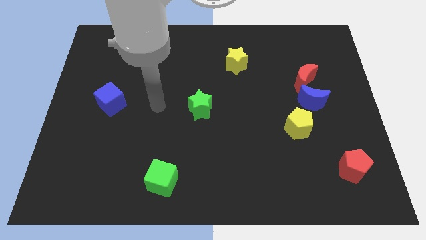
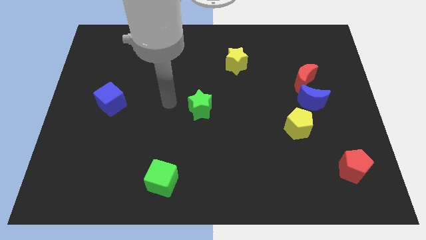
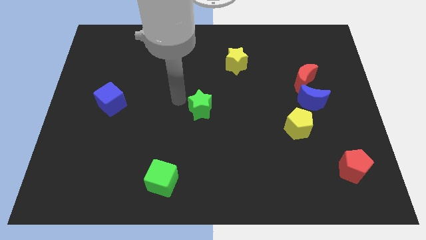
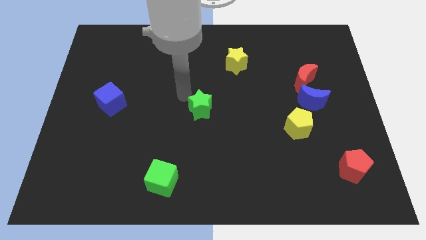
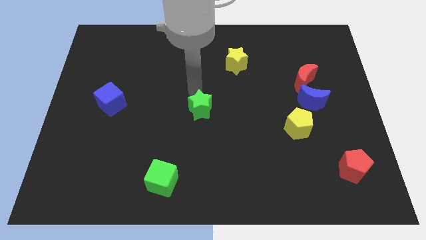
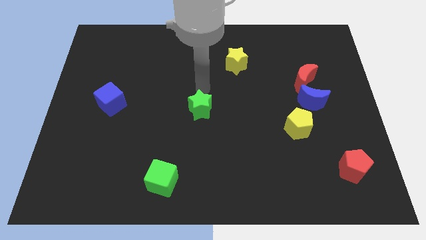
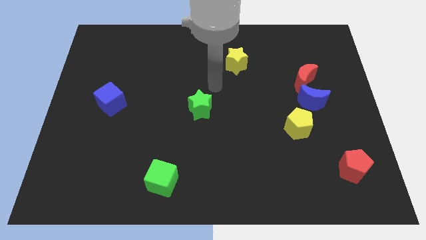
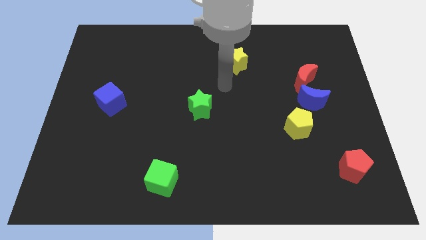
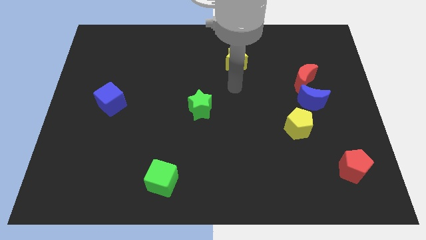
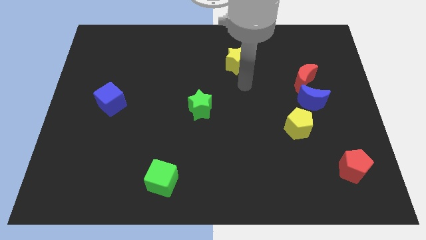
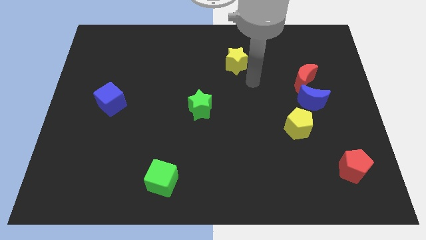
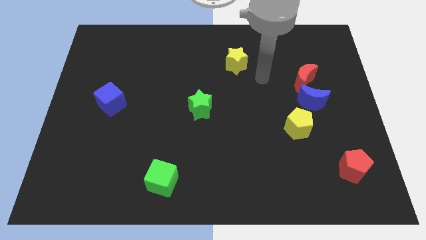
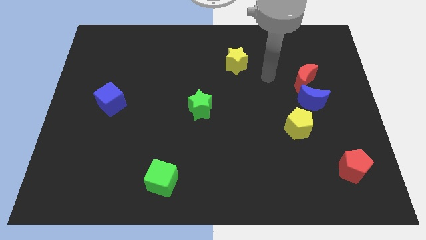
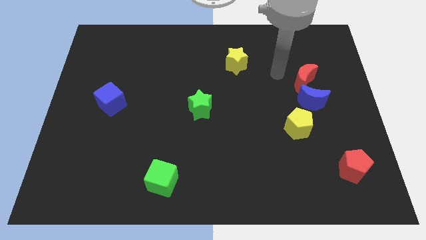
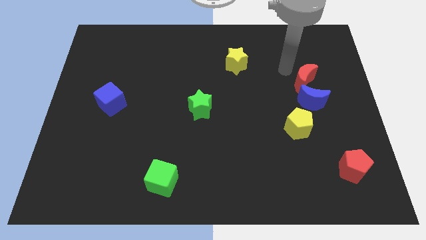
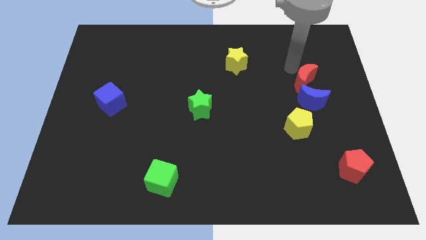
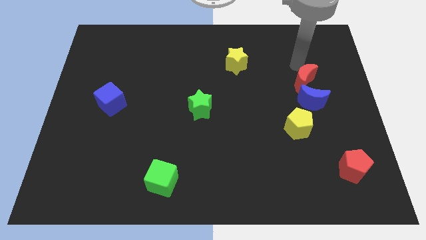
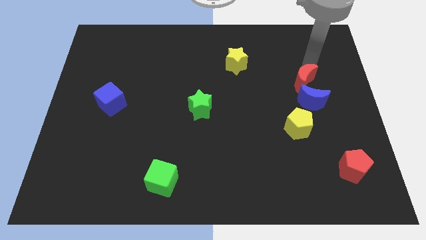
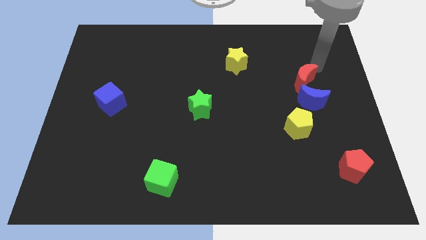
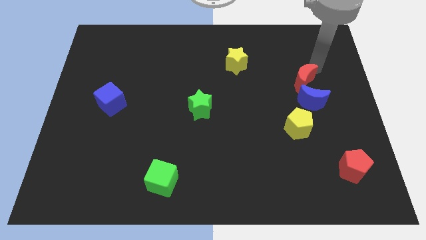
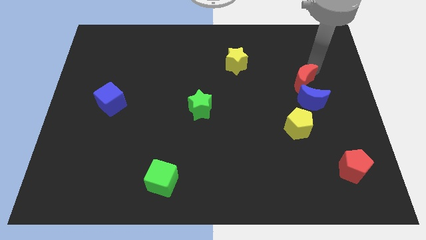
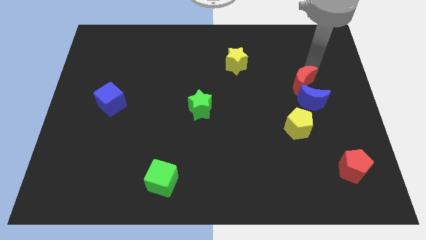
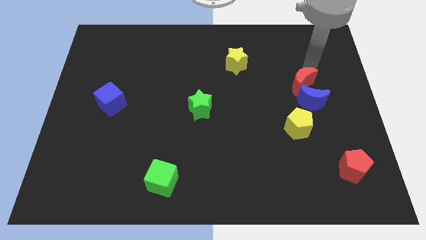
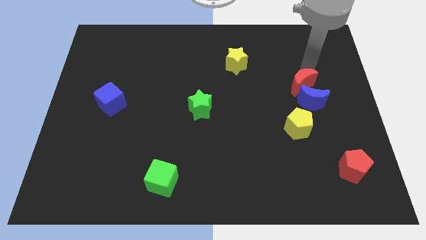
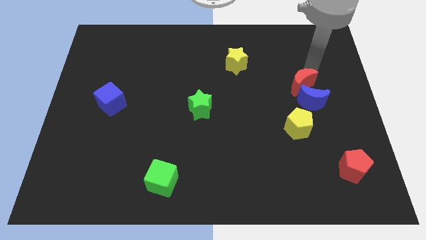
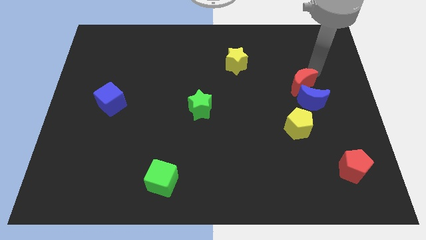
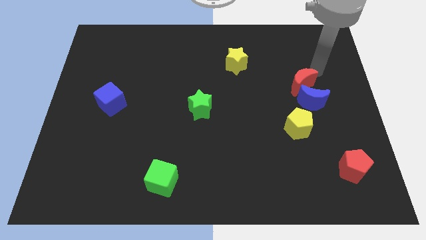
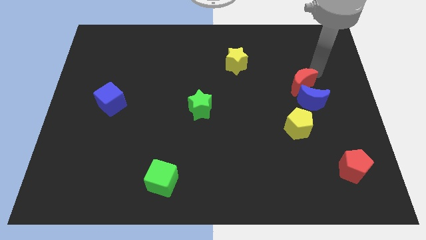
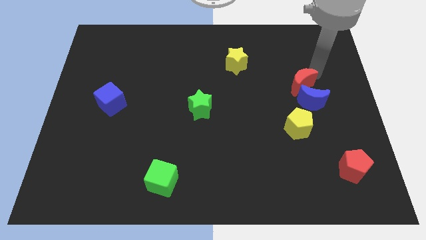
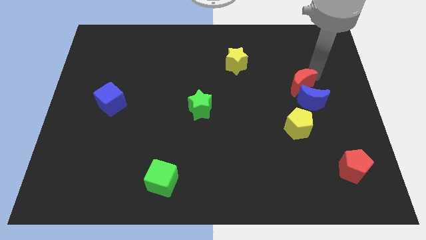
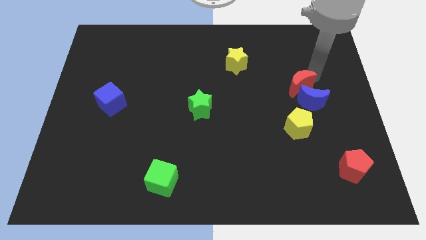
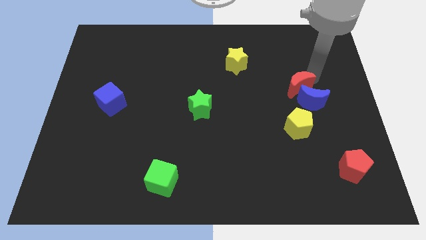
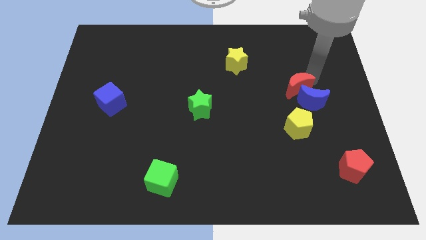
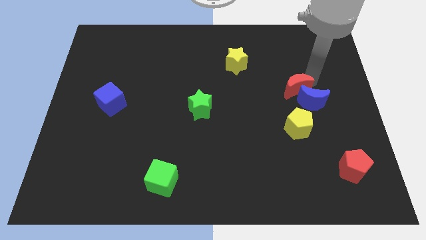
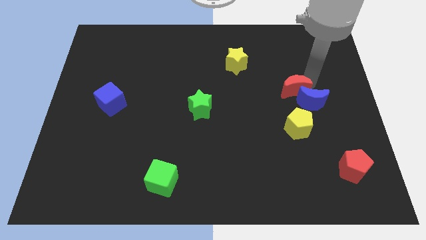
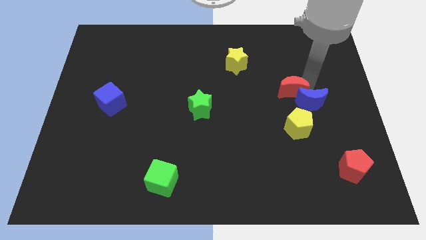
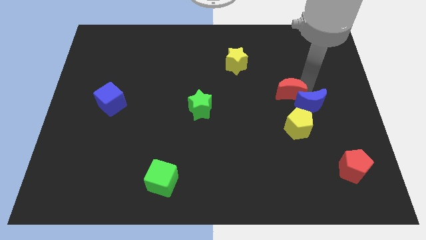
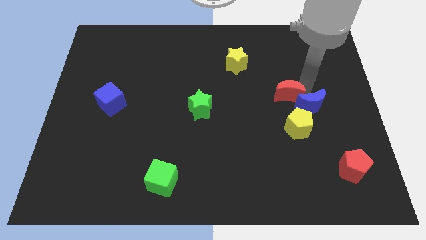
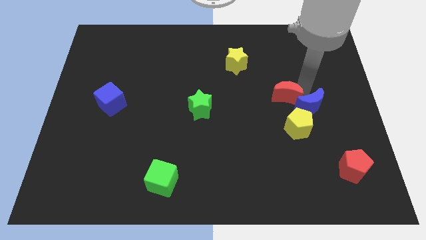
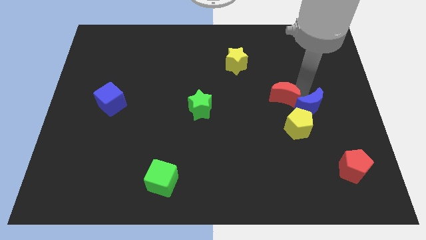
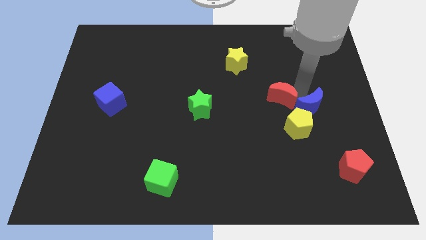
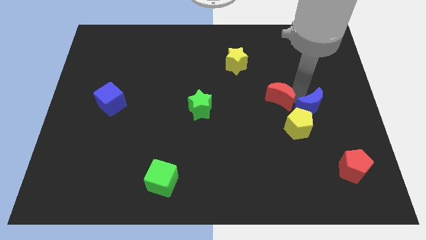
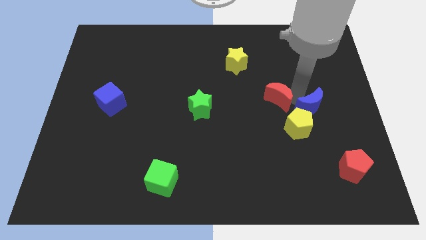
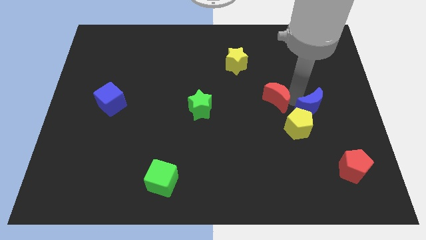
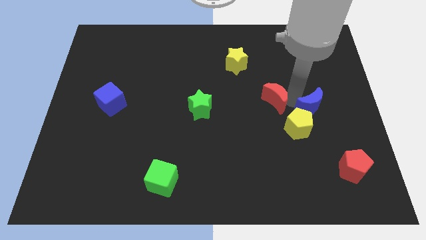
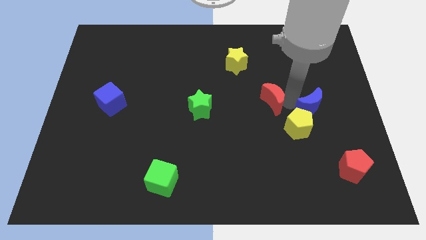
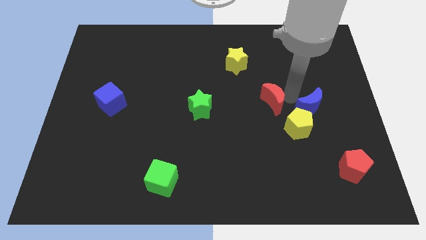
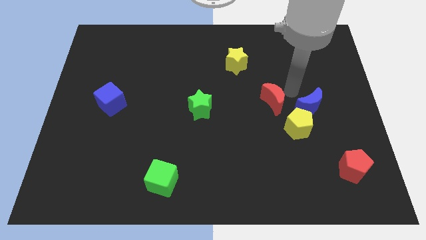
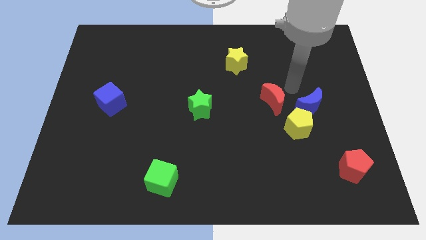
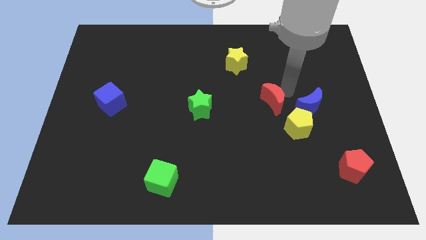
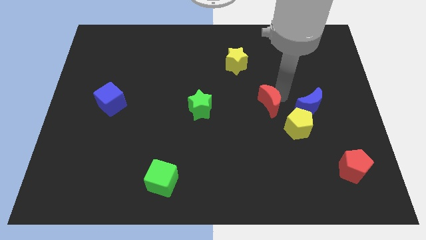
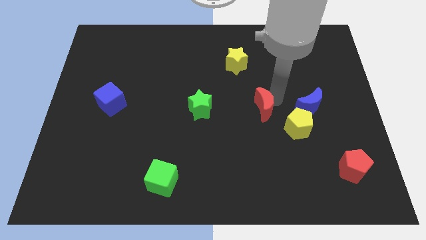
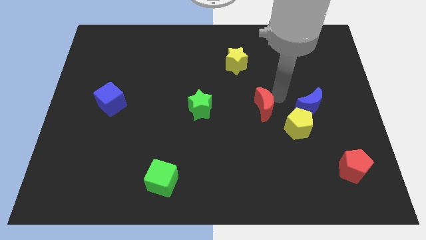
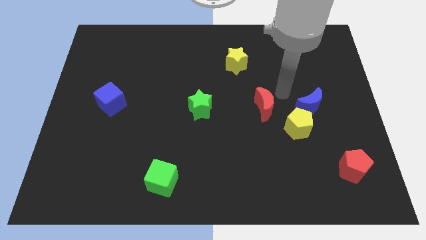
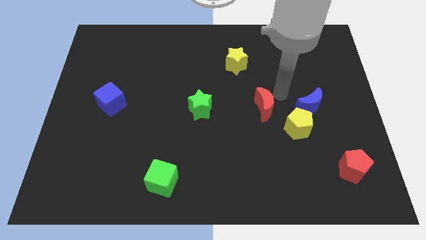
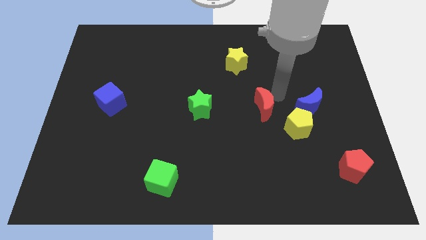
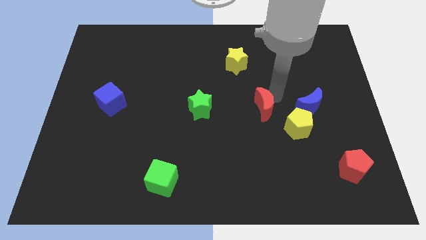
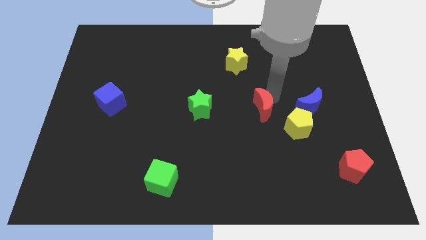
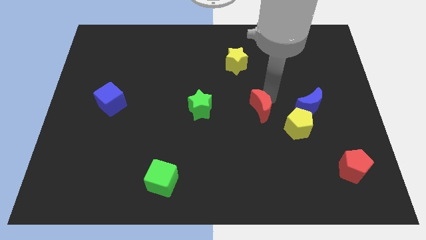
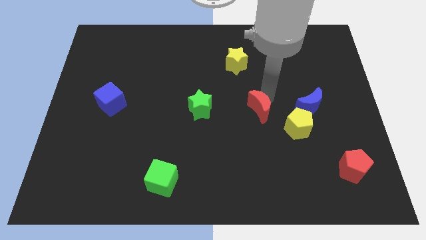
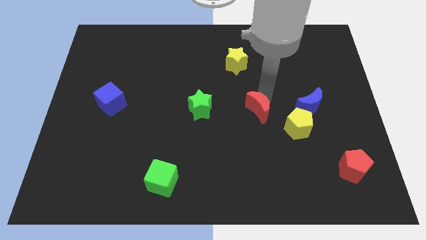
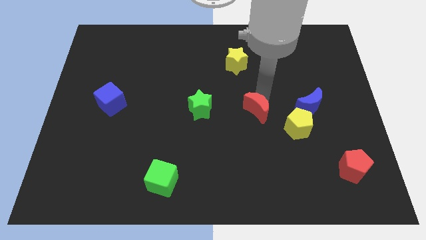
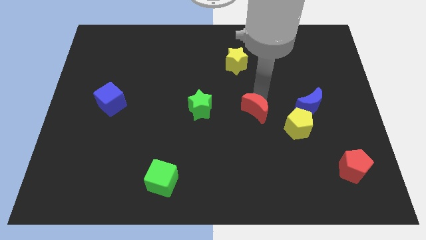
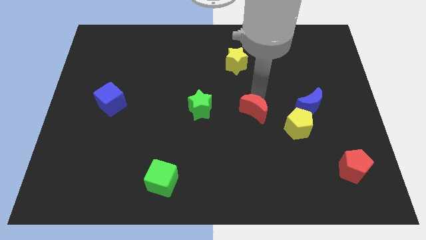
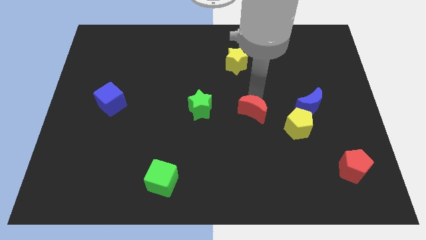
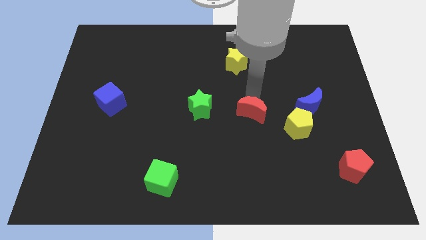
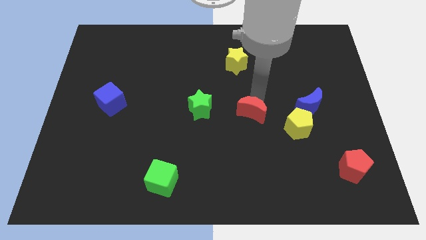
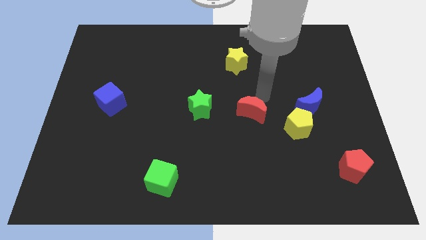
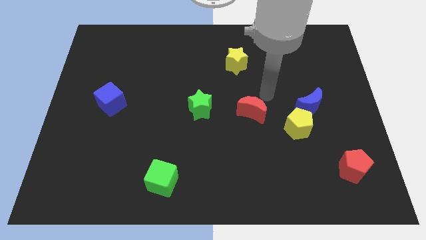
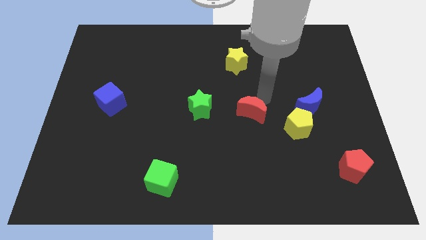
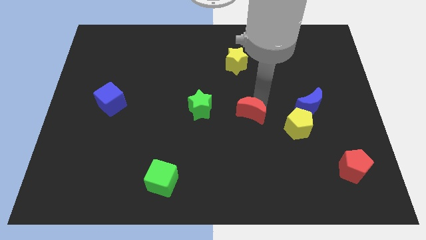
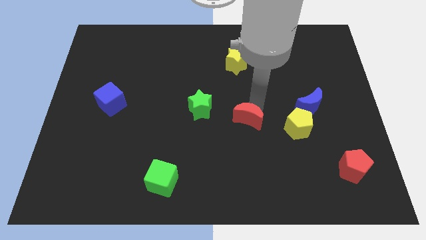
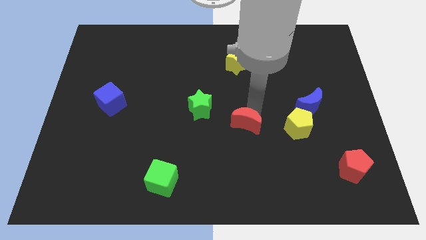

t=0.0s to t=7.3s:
slide the red moon down and left

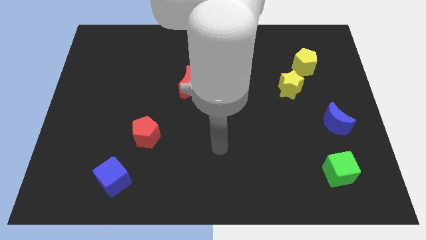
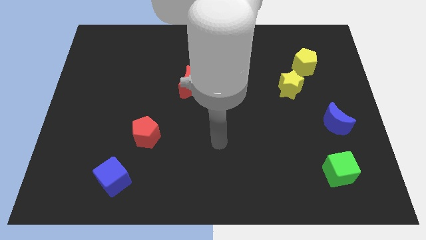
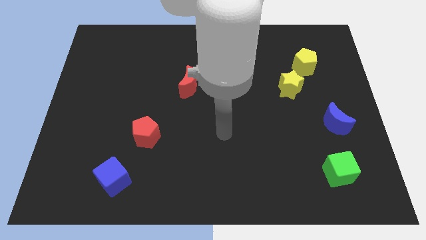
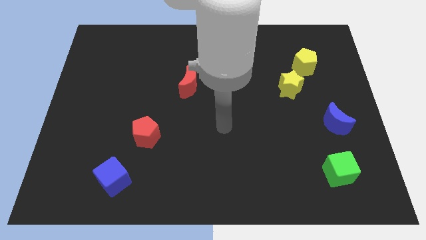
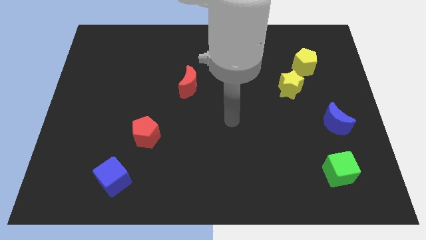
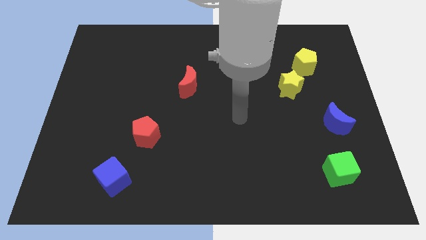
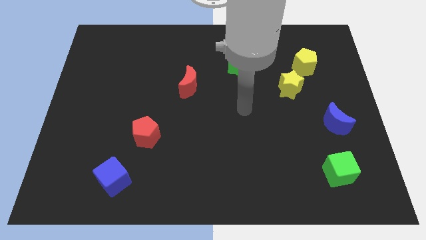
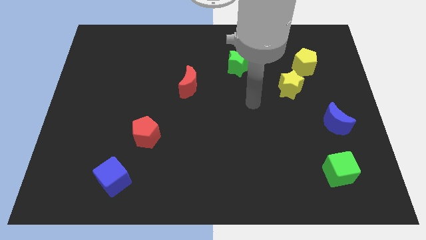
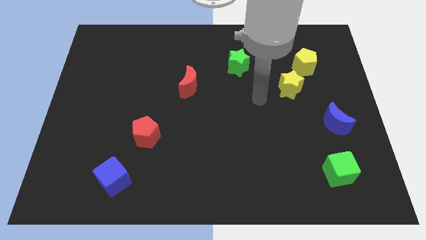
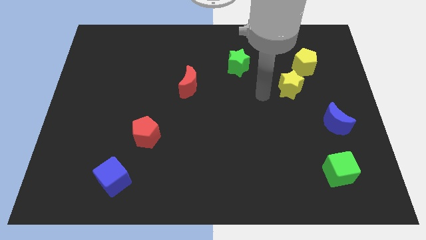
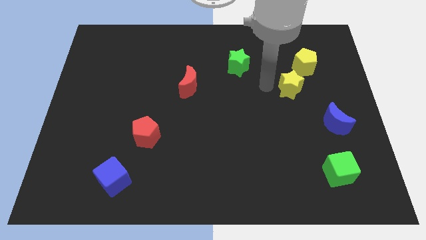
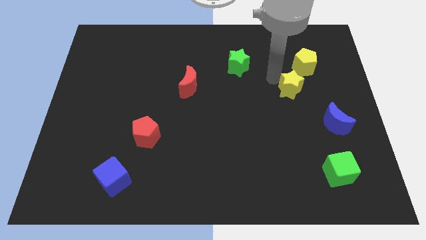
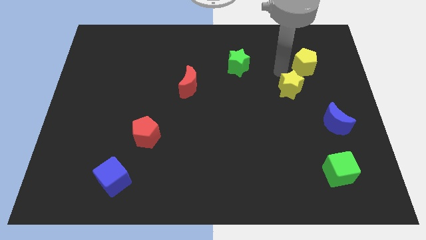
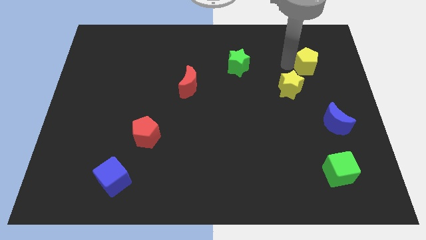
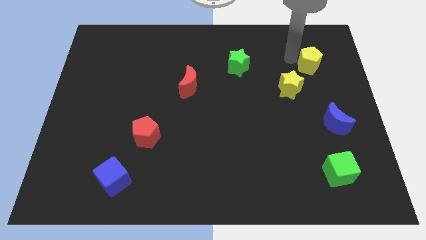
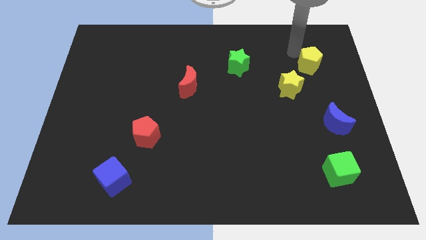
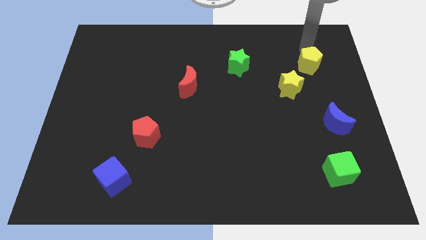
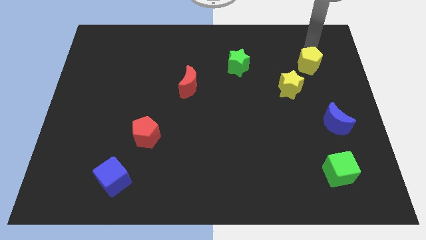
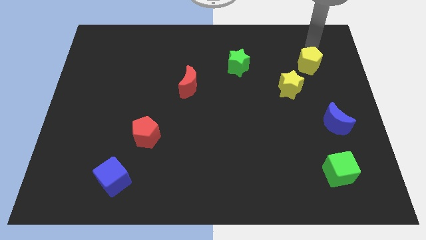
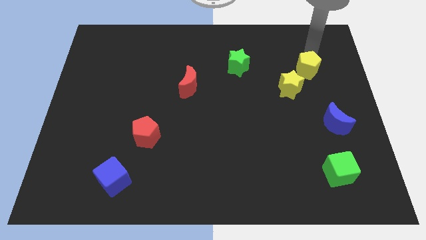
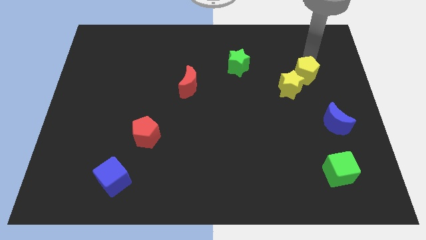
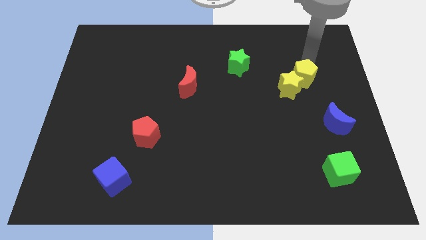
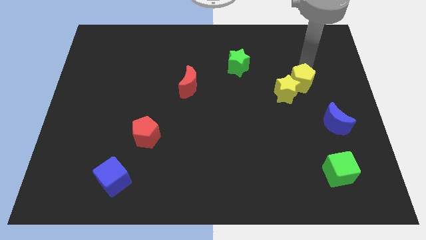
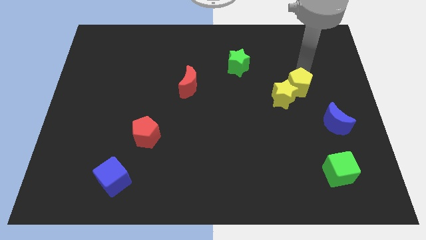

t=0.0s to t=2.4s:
slightly move the yellow pentagon downwards
